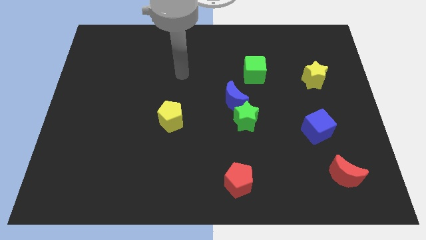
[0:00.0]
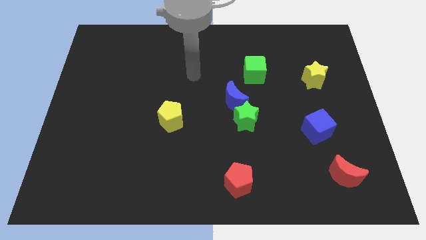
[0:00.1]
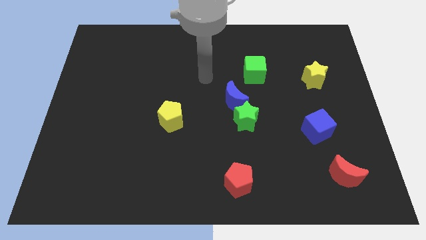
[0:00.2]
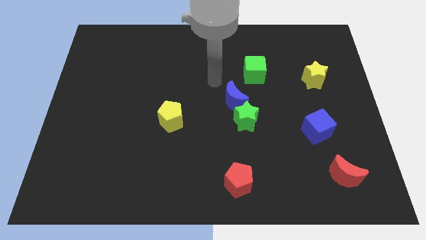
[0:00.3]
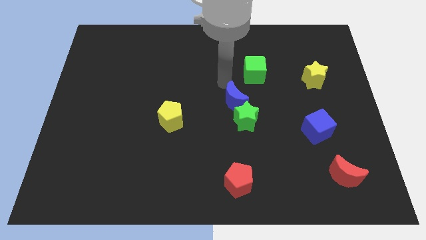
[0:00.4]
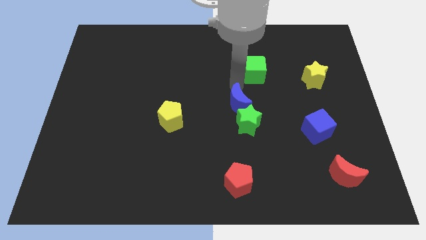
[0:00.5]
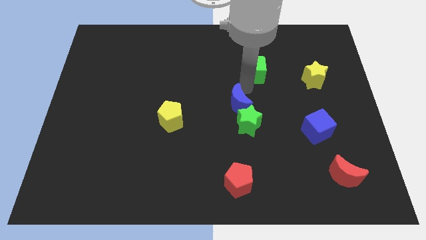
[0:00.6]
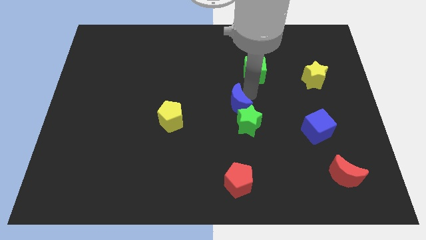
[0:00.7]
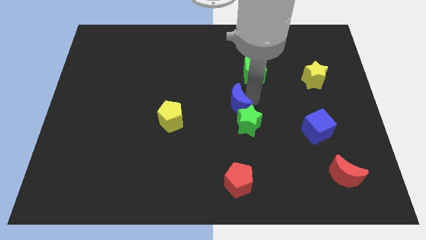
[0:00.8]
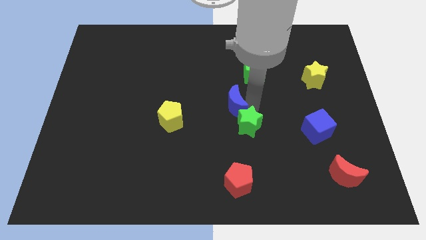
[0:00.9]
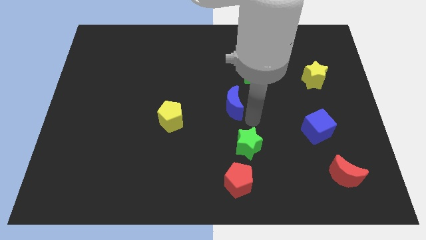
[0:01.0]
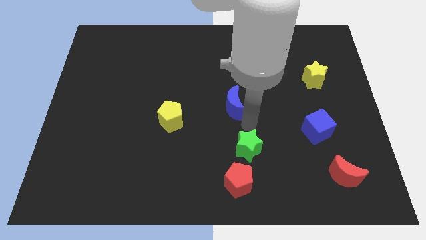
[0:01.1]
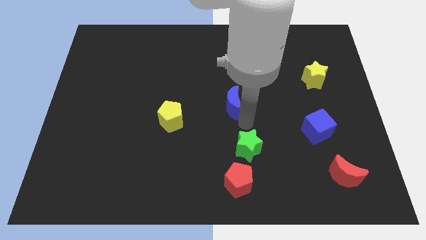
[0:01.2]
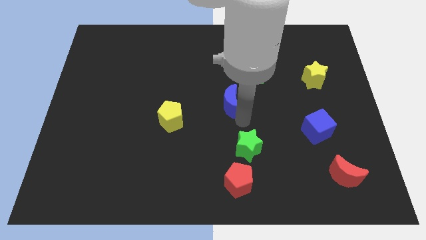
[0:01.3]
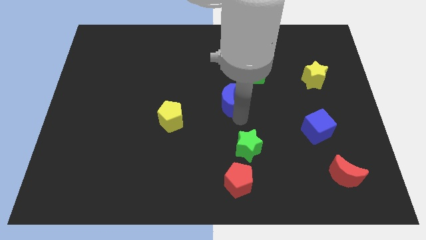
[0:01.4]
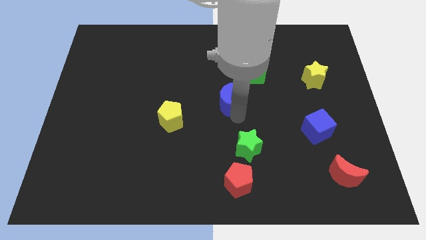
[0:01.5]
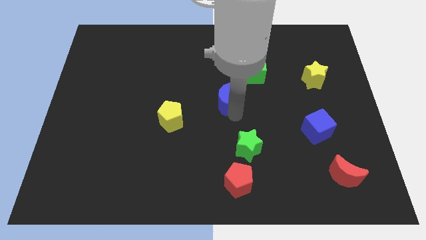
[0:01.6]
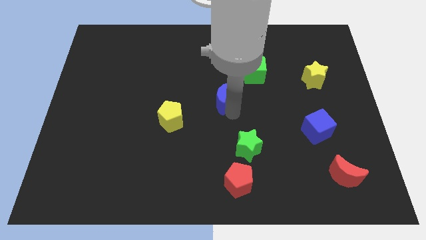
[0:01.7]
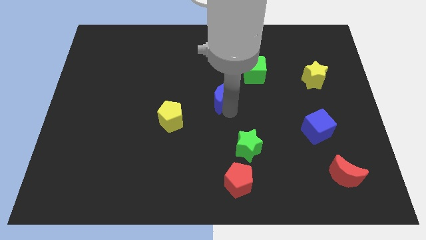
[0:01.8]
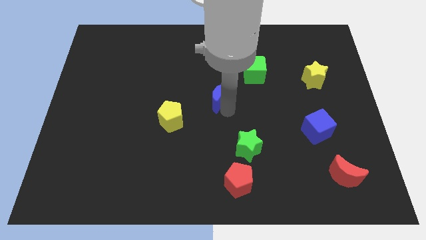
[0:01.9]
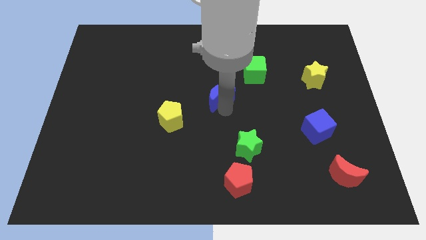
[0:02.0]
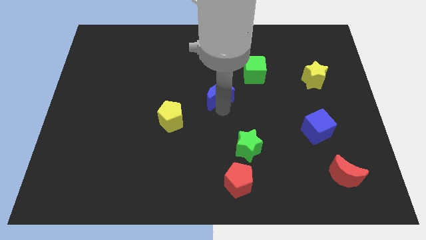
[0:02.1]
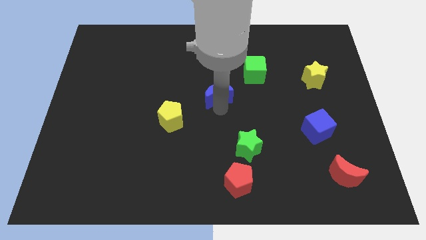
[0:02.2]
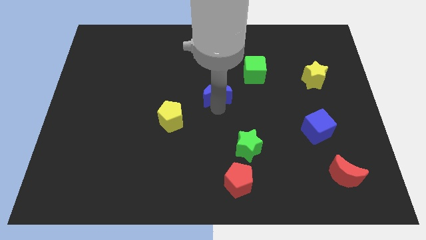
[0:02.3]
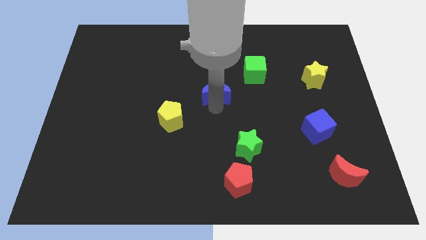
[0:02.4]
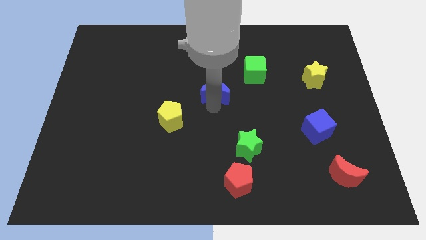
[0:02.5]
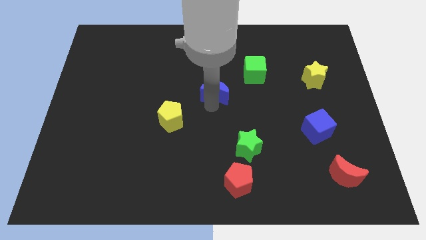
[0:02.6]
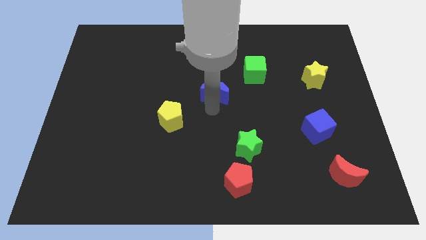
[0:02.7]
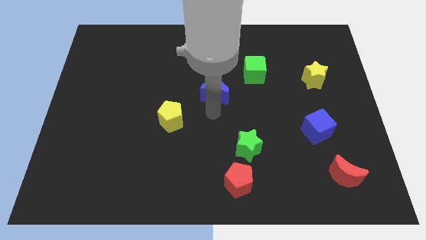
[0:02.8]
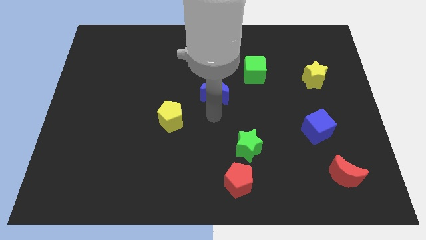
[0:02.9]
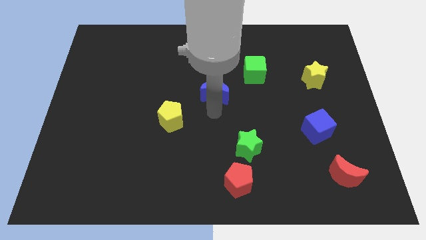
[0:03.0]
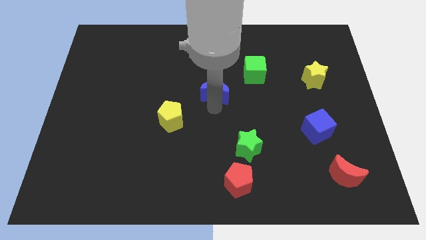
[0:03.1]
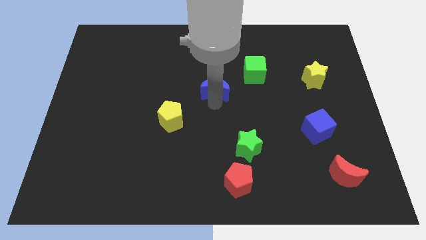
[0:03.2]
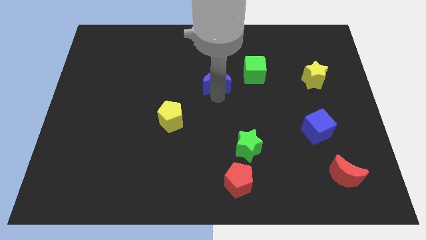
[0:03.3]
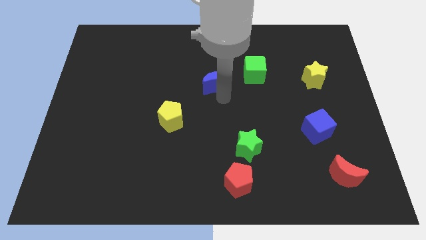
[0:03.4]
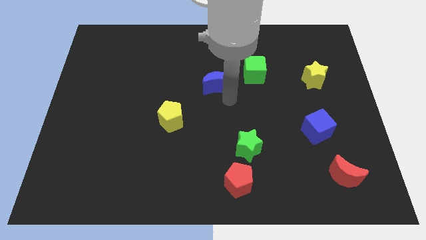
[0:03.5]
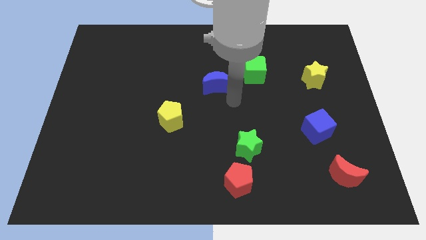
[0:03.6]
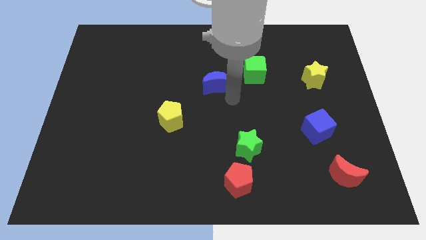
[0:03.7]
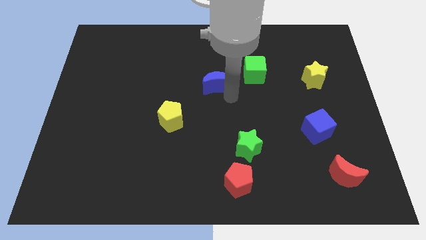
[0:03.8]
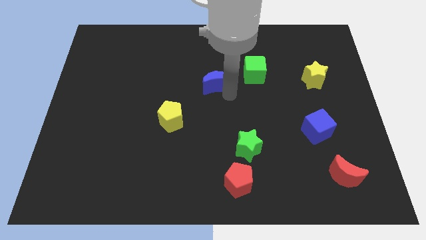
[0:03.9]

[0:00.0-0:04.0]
slightly move the blue moon up and then left

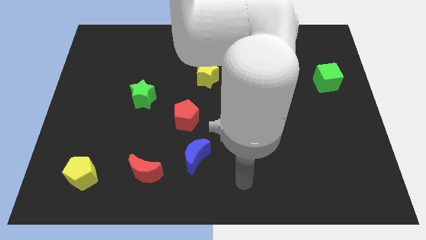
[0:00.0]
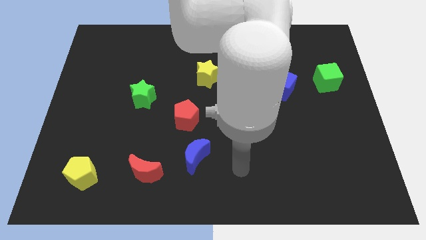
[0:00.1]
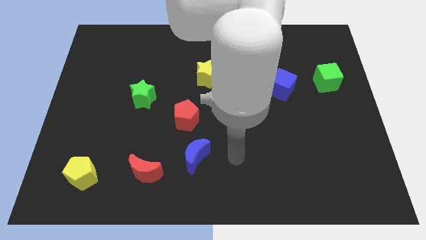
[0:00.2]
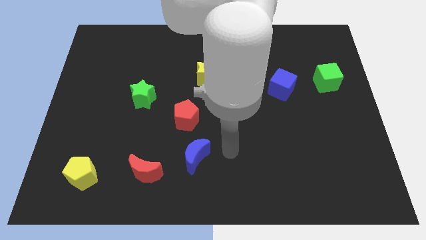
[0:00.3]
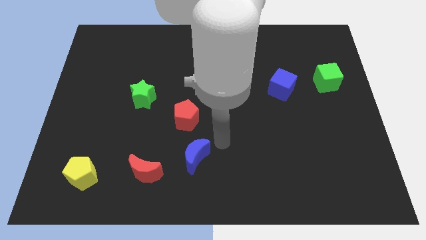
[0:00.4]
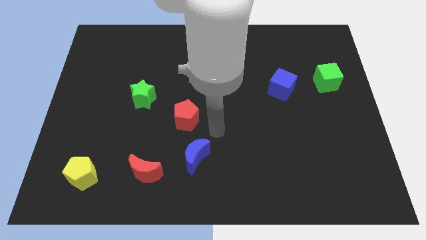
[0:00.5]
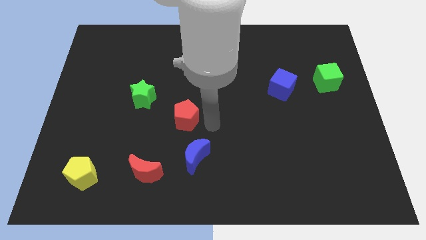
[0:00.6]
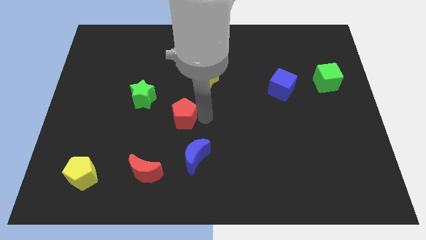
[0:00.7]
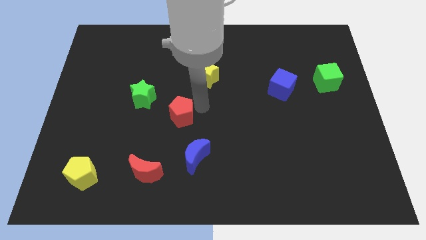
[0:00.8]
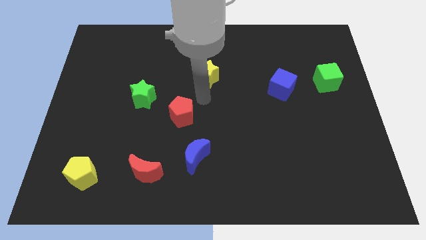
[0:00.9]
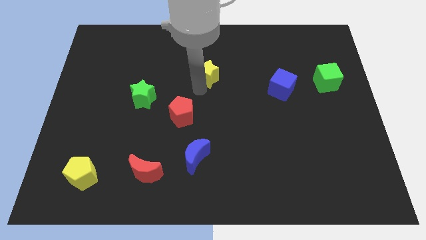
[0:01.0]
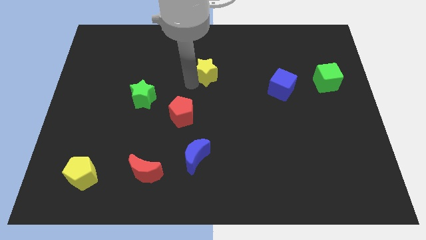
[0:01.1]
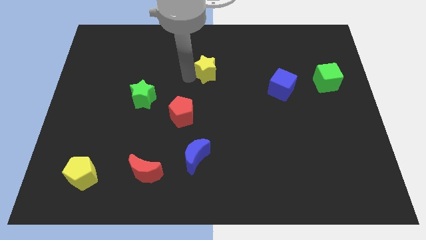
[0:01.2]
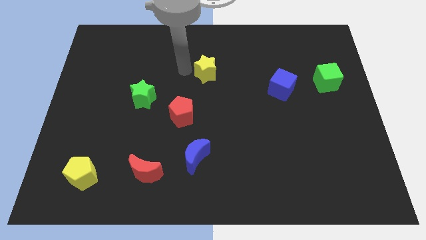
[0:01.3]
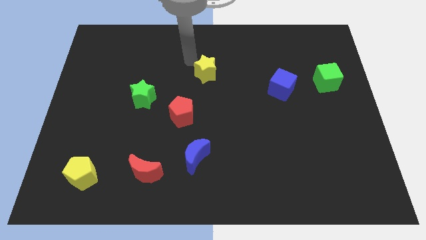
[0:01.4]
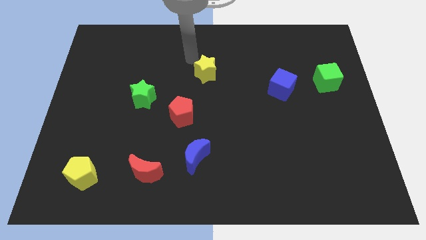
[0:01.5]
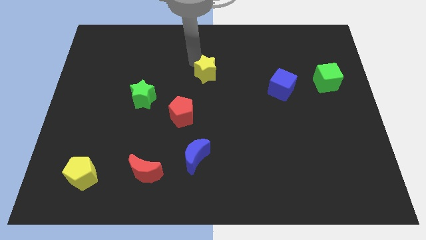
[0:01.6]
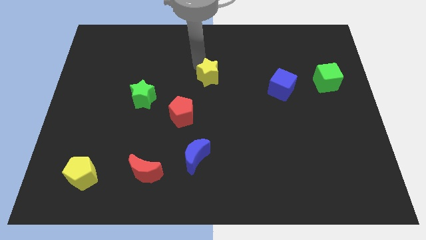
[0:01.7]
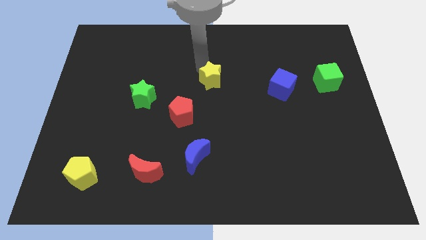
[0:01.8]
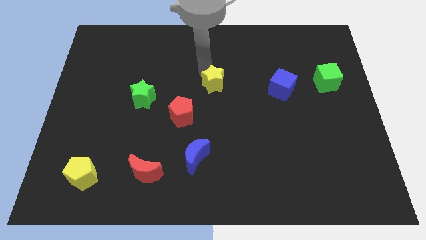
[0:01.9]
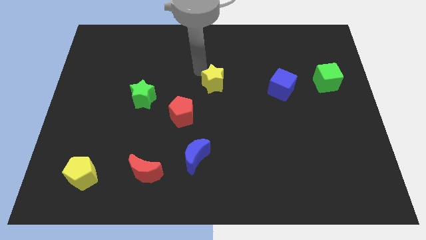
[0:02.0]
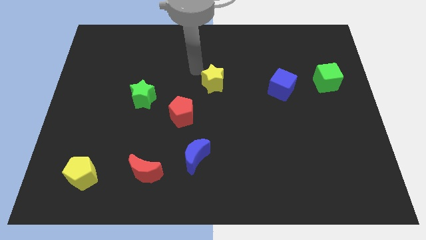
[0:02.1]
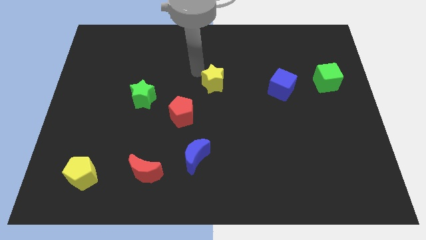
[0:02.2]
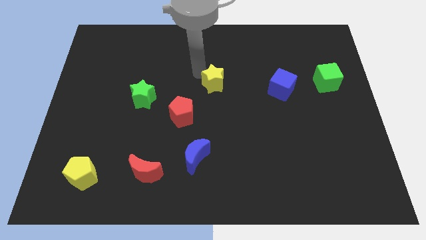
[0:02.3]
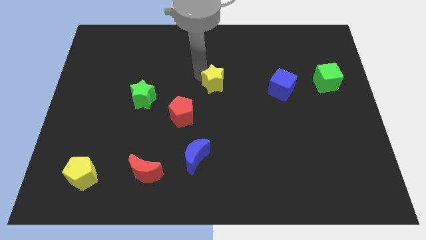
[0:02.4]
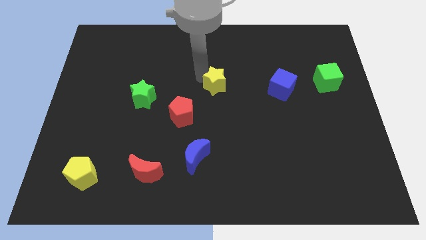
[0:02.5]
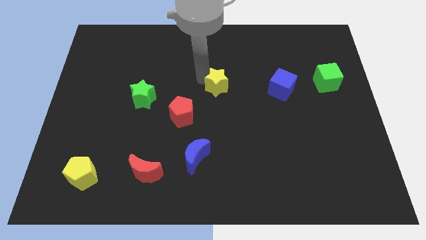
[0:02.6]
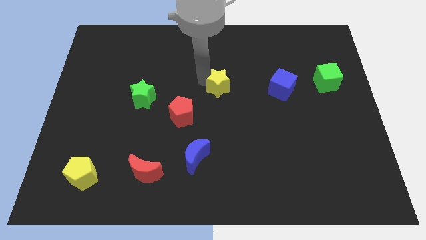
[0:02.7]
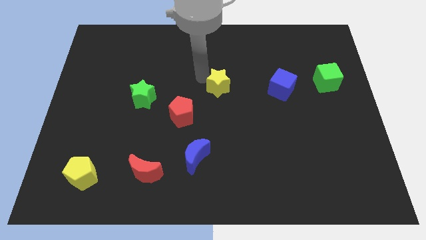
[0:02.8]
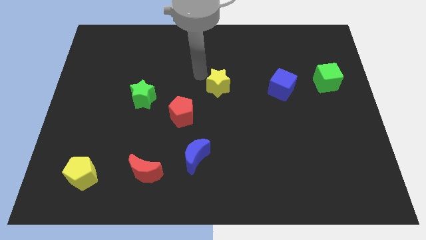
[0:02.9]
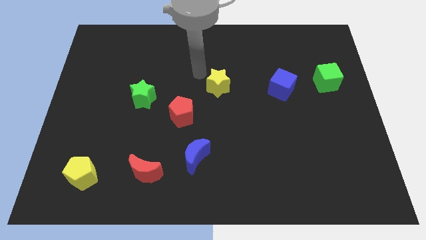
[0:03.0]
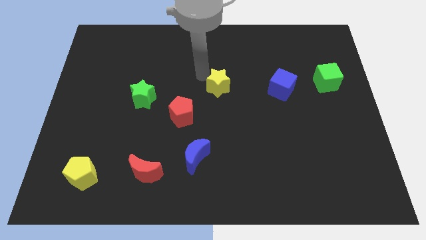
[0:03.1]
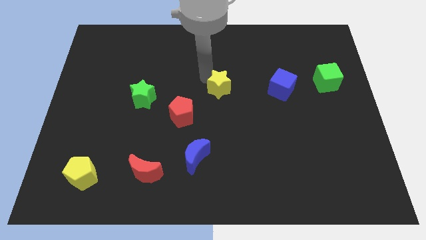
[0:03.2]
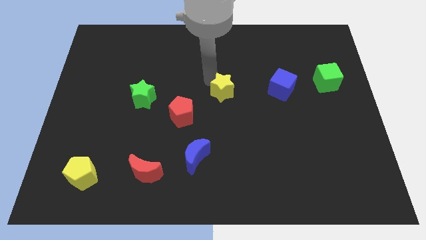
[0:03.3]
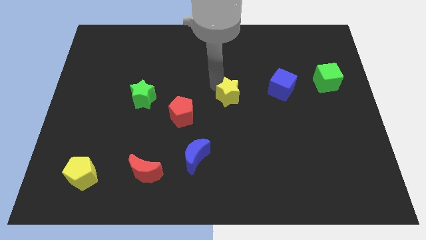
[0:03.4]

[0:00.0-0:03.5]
slightly slide the yellow star down and right
